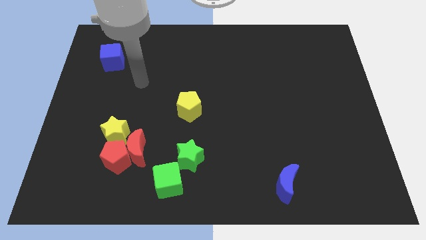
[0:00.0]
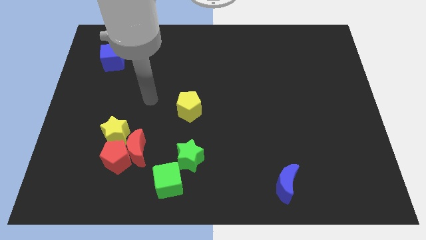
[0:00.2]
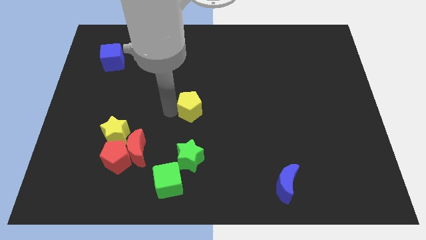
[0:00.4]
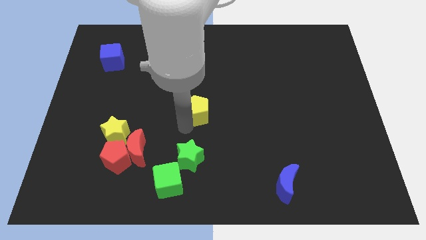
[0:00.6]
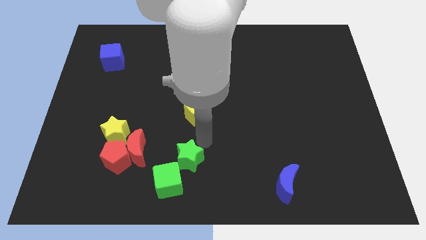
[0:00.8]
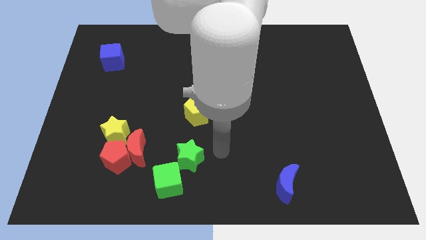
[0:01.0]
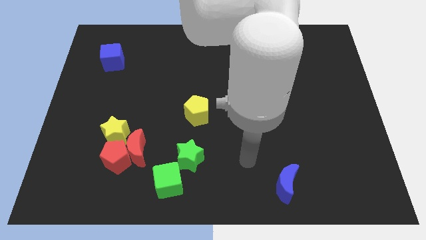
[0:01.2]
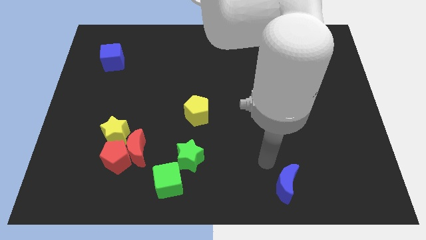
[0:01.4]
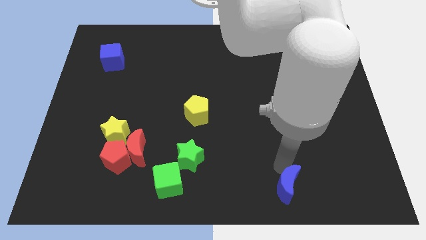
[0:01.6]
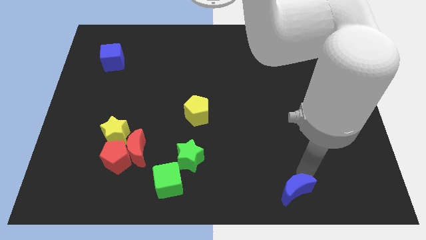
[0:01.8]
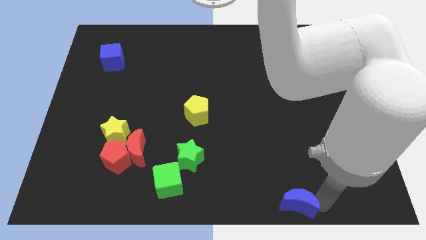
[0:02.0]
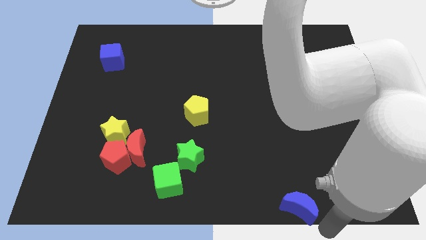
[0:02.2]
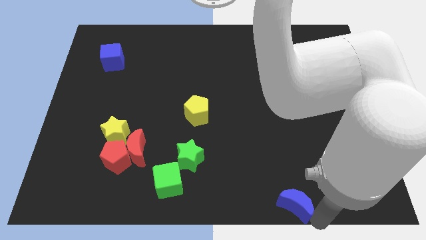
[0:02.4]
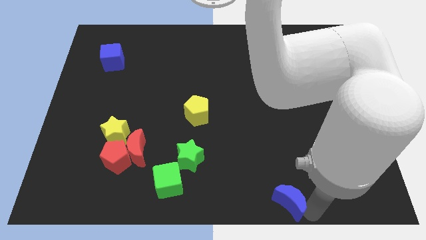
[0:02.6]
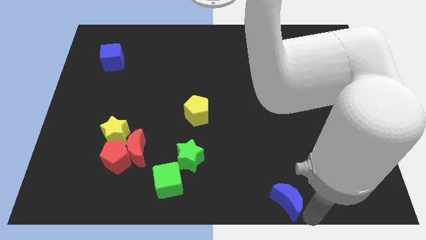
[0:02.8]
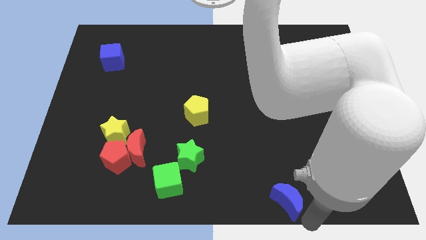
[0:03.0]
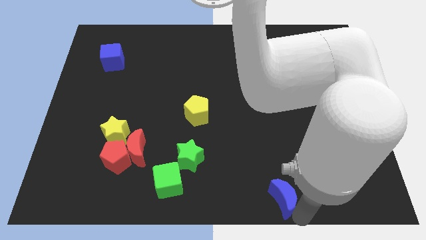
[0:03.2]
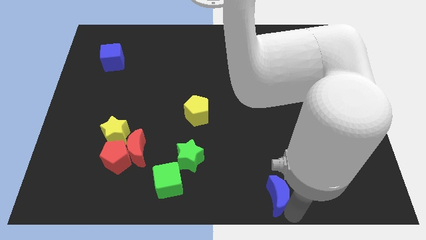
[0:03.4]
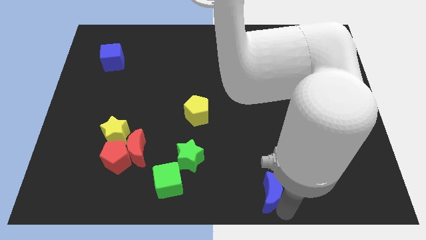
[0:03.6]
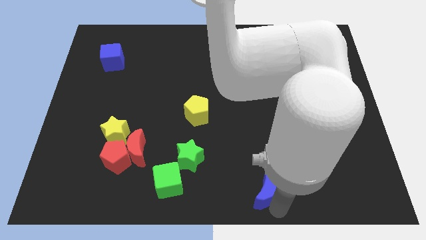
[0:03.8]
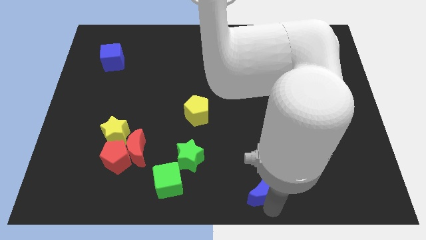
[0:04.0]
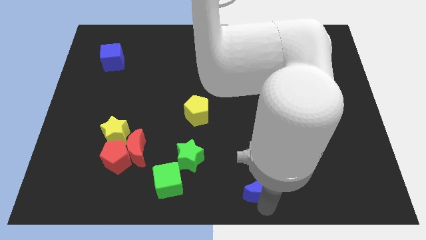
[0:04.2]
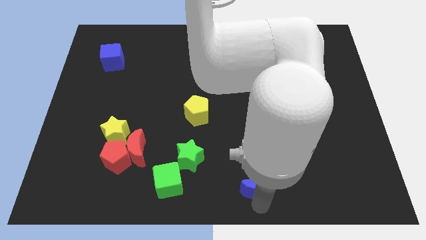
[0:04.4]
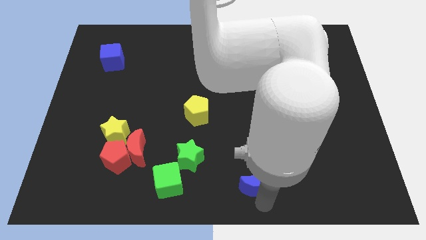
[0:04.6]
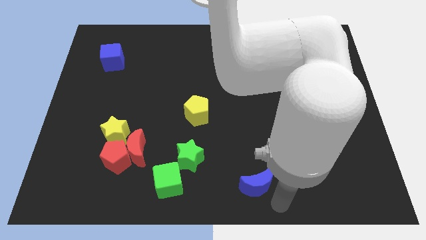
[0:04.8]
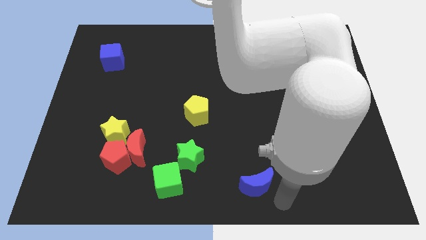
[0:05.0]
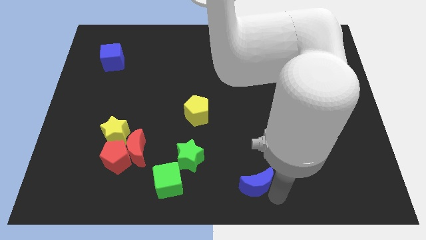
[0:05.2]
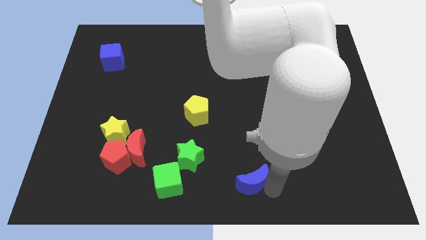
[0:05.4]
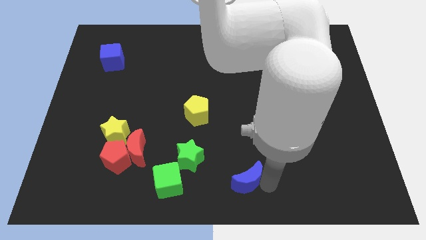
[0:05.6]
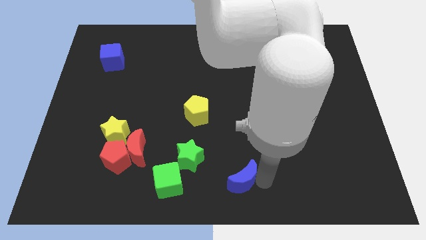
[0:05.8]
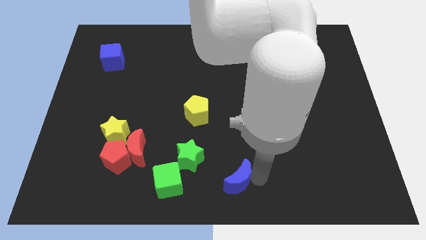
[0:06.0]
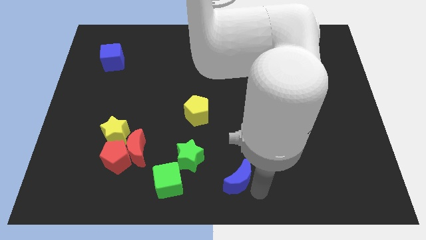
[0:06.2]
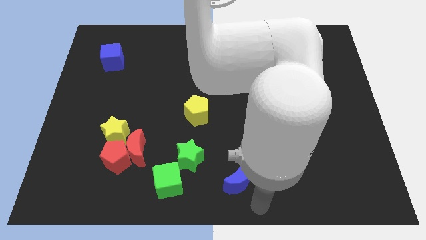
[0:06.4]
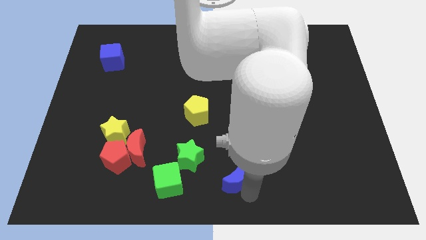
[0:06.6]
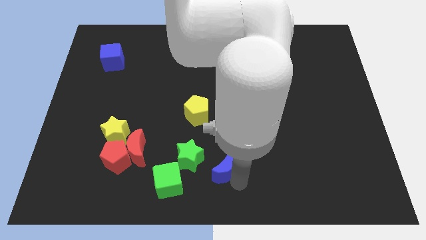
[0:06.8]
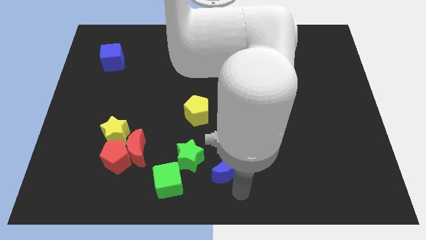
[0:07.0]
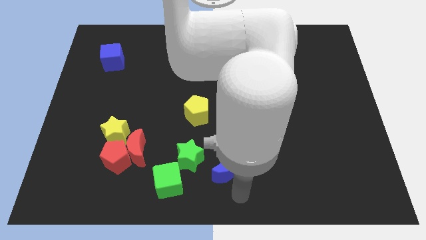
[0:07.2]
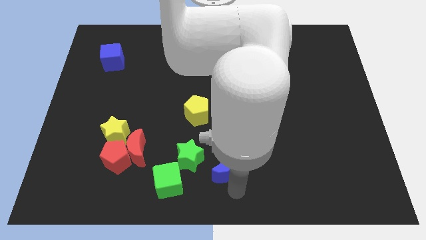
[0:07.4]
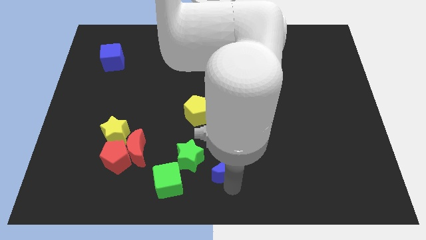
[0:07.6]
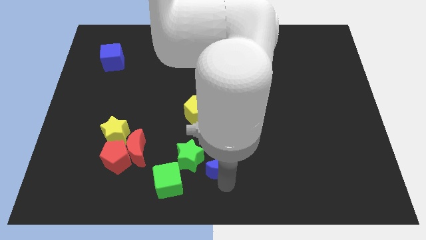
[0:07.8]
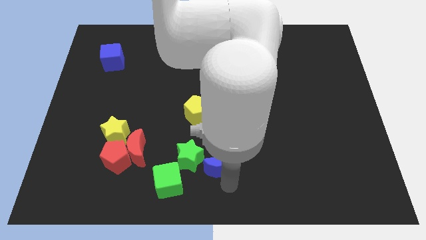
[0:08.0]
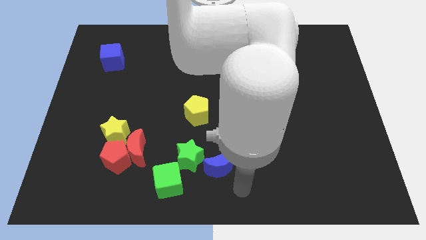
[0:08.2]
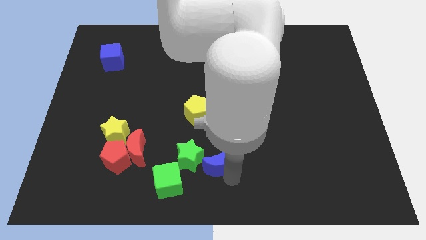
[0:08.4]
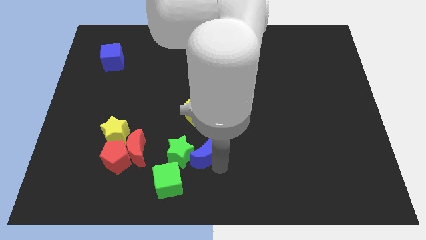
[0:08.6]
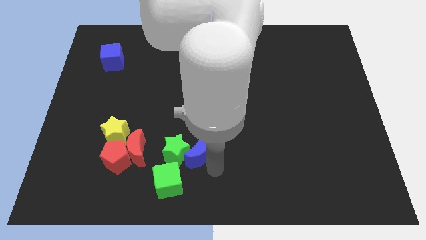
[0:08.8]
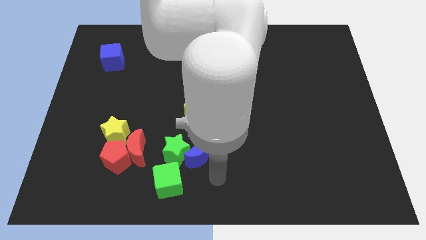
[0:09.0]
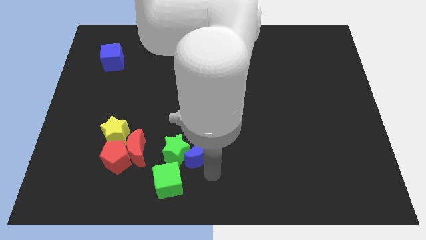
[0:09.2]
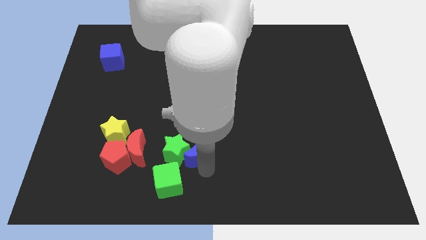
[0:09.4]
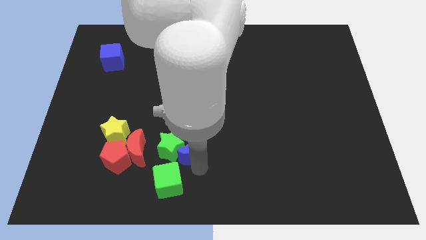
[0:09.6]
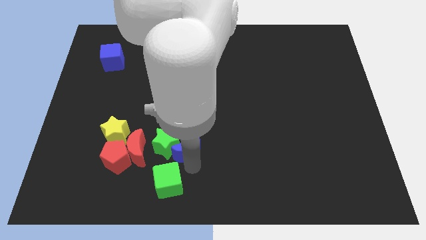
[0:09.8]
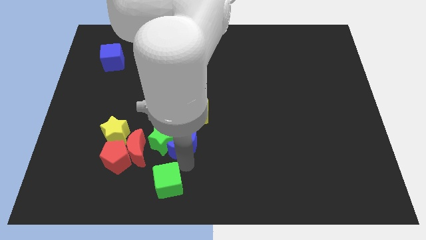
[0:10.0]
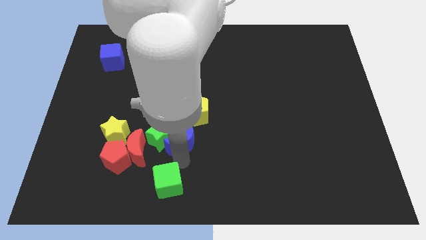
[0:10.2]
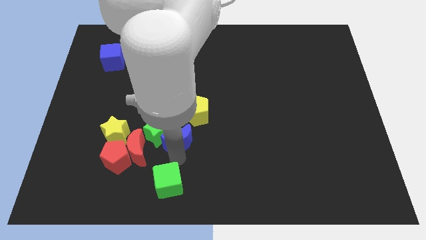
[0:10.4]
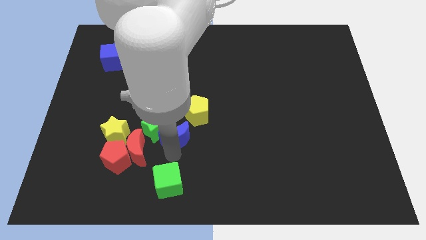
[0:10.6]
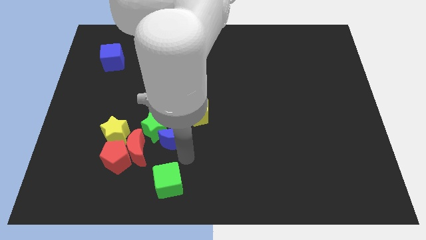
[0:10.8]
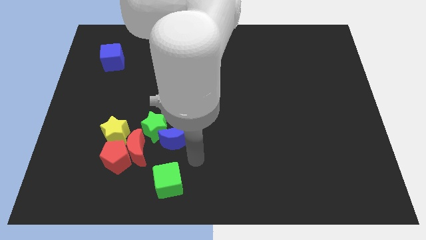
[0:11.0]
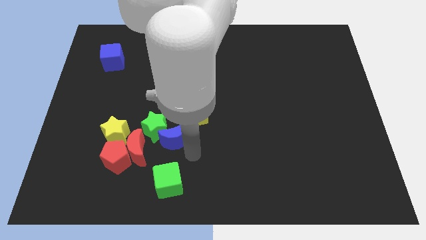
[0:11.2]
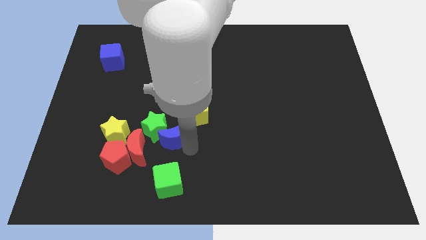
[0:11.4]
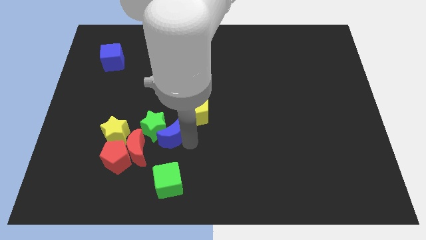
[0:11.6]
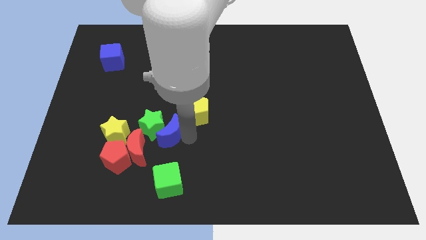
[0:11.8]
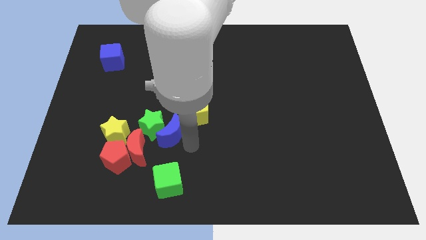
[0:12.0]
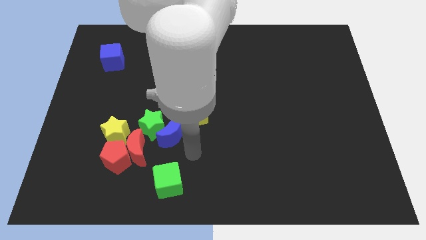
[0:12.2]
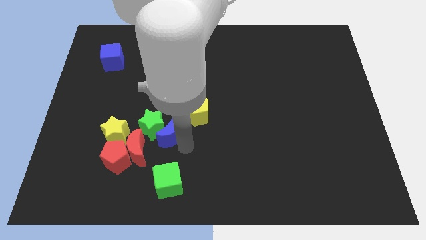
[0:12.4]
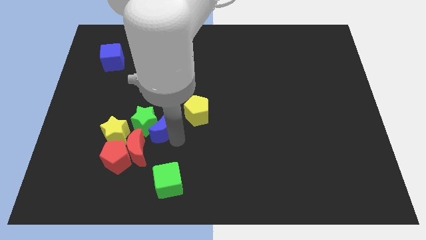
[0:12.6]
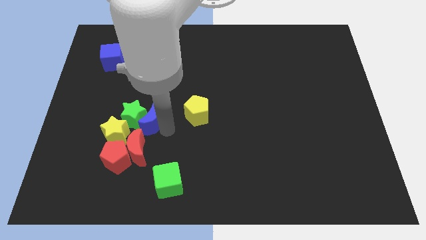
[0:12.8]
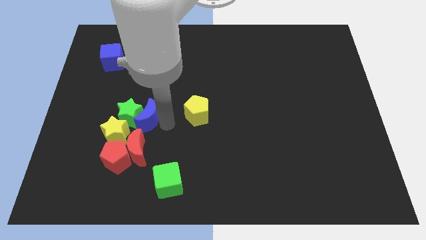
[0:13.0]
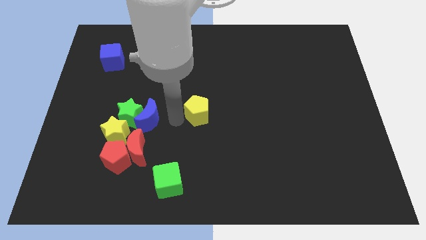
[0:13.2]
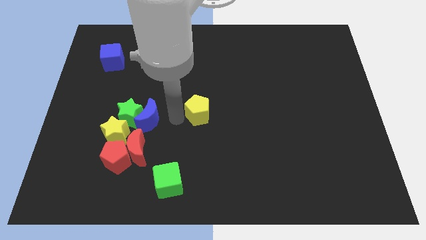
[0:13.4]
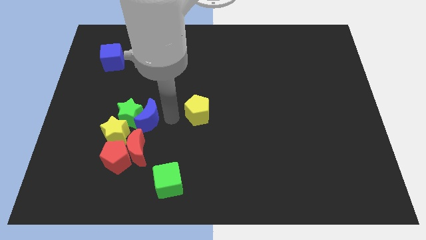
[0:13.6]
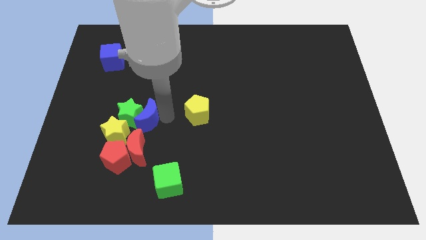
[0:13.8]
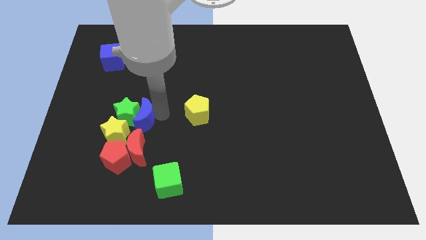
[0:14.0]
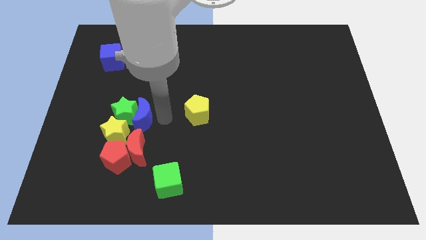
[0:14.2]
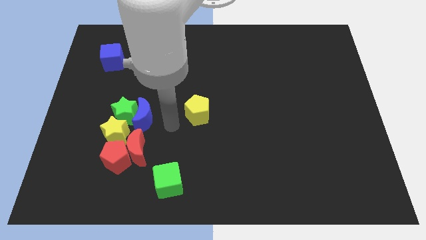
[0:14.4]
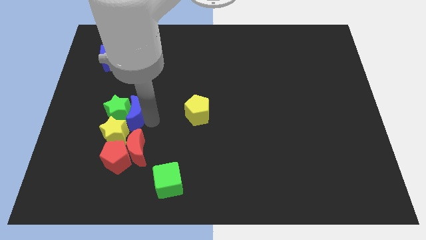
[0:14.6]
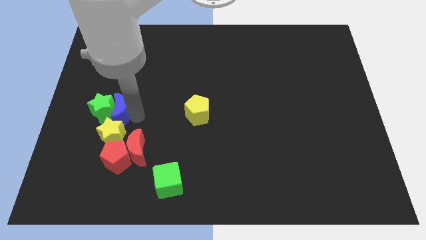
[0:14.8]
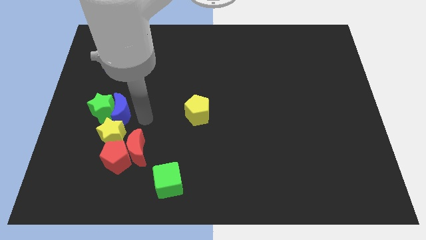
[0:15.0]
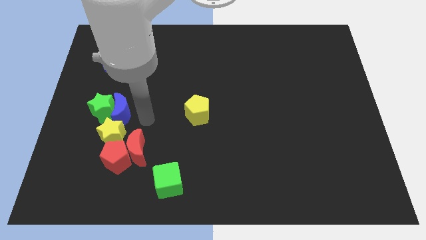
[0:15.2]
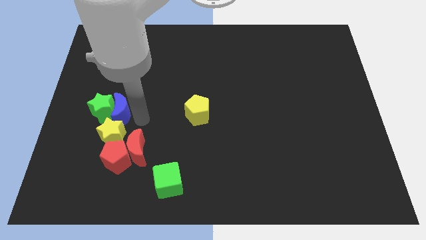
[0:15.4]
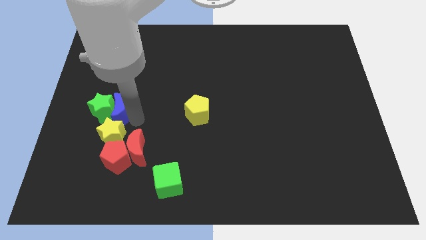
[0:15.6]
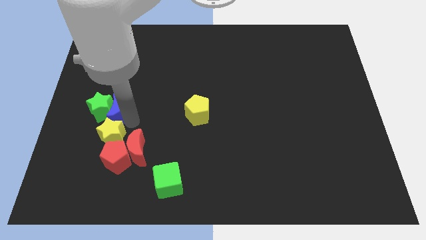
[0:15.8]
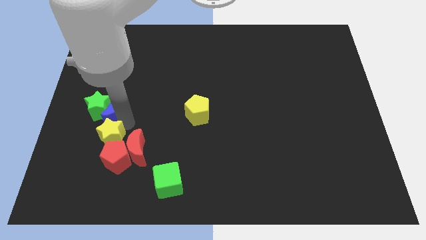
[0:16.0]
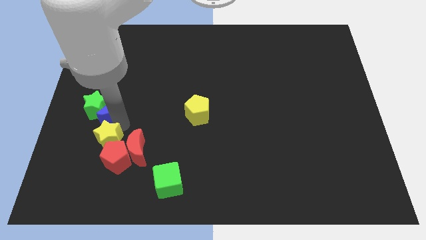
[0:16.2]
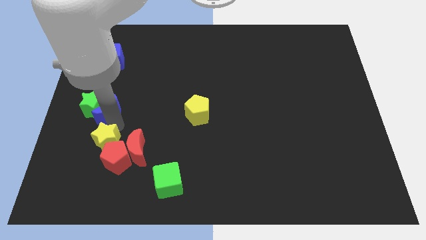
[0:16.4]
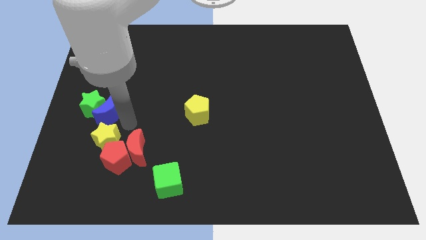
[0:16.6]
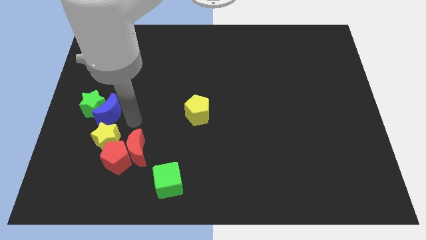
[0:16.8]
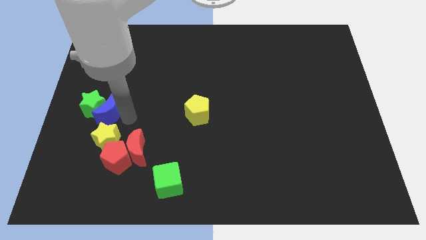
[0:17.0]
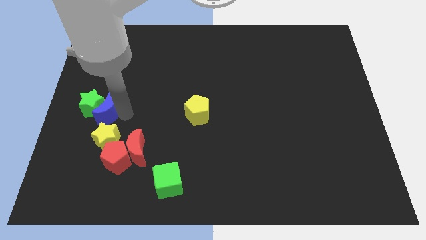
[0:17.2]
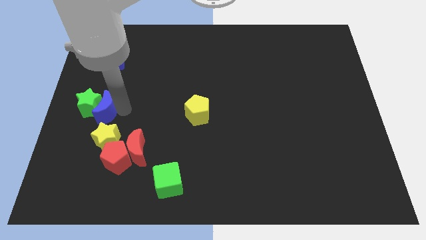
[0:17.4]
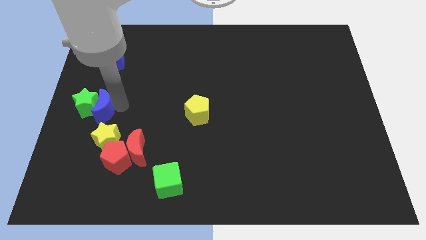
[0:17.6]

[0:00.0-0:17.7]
put the blue moon to the center left
